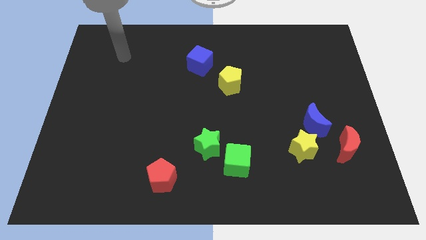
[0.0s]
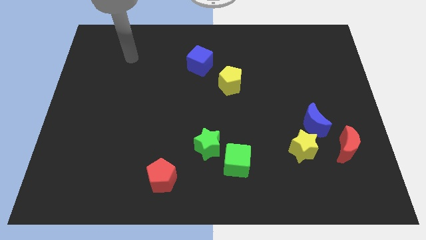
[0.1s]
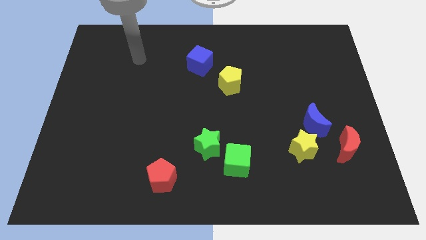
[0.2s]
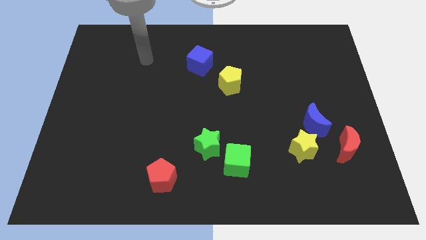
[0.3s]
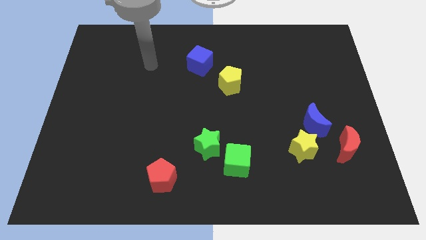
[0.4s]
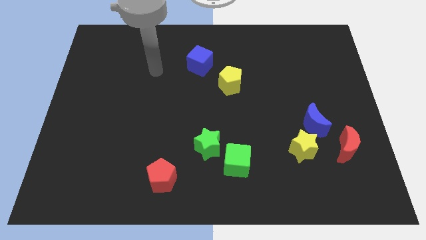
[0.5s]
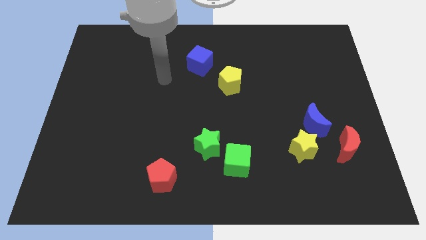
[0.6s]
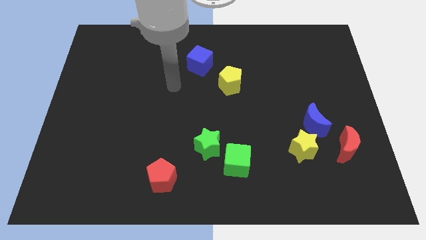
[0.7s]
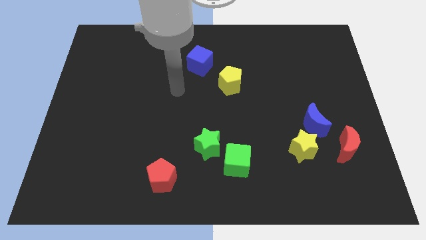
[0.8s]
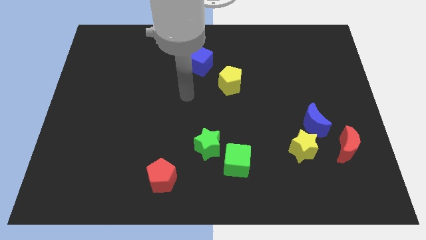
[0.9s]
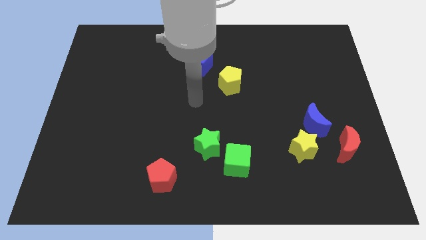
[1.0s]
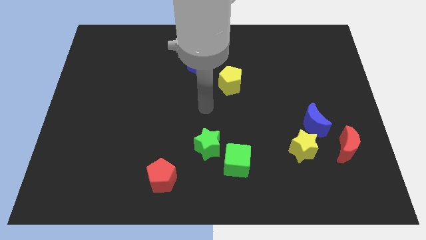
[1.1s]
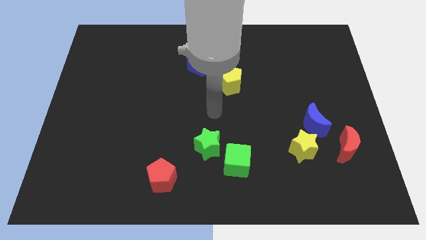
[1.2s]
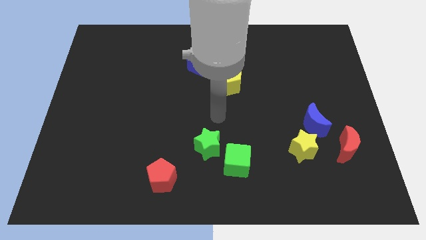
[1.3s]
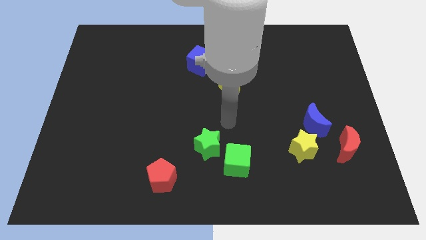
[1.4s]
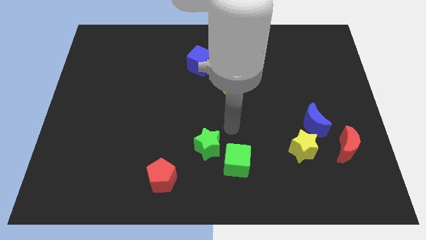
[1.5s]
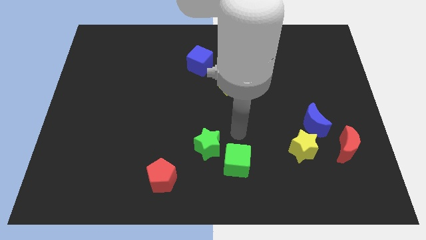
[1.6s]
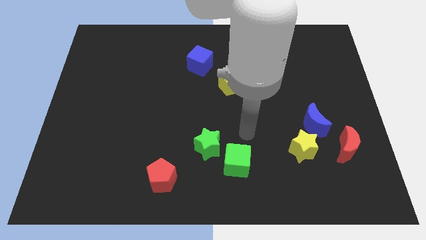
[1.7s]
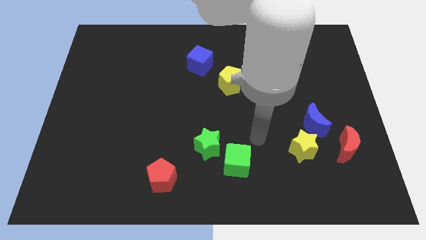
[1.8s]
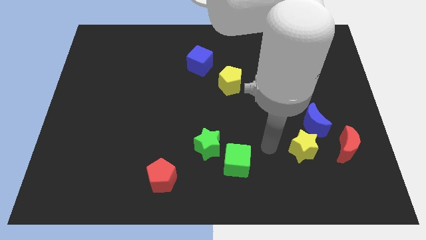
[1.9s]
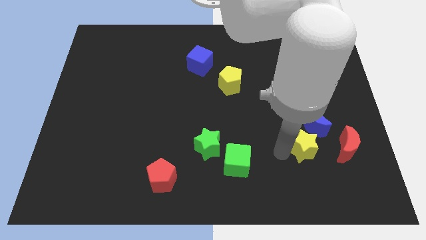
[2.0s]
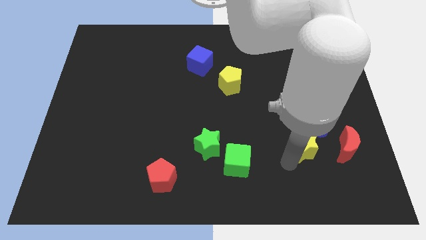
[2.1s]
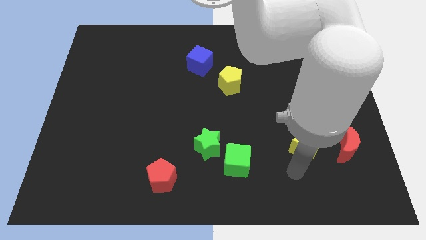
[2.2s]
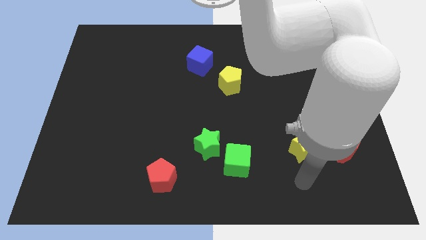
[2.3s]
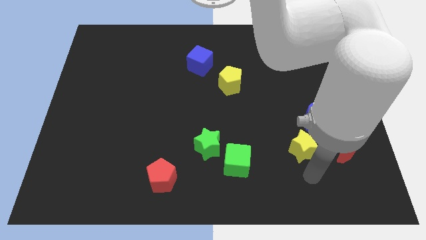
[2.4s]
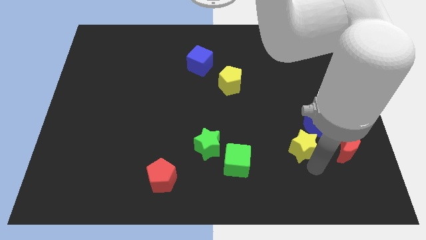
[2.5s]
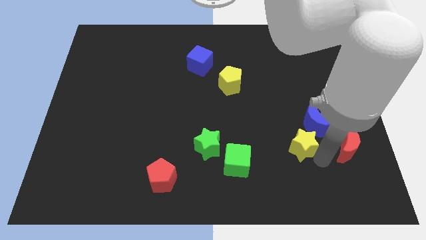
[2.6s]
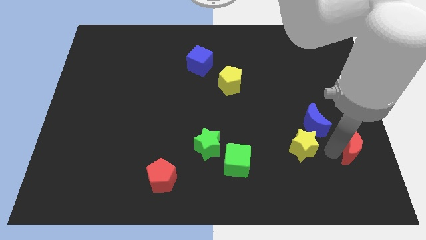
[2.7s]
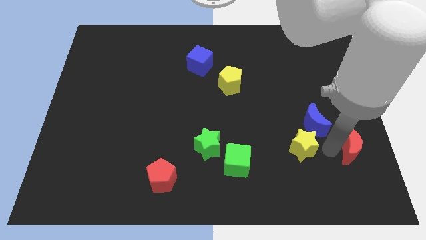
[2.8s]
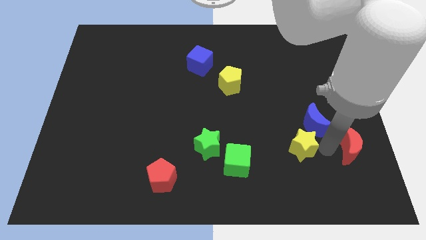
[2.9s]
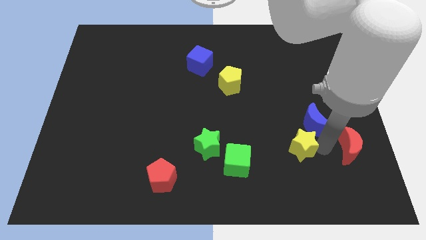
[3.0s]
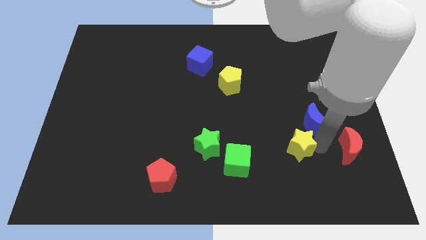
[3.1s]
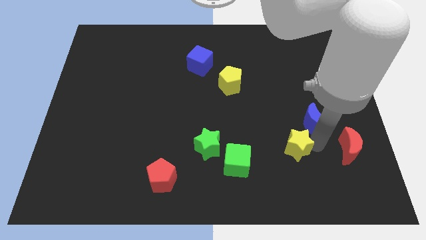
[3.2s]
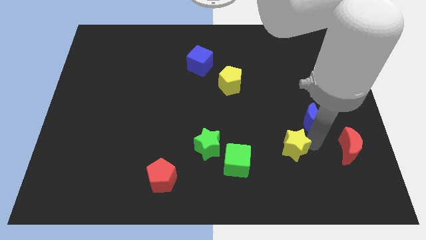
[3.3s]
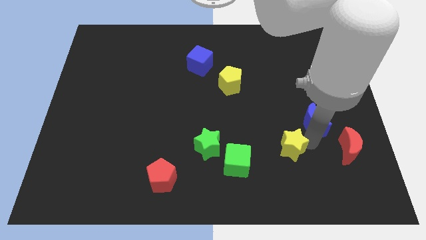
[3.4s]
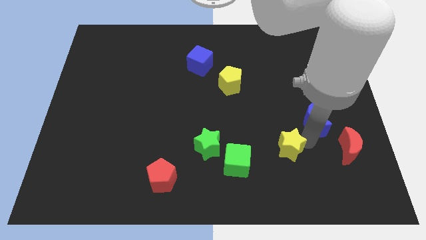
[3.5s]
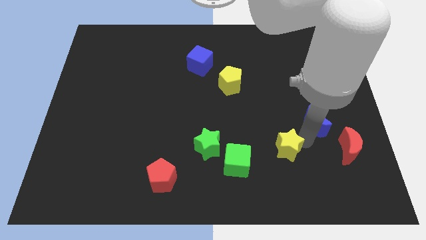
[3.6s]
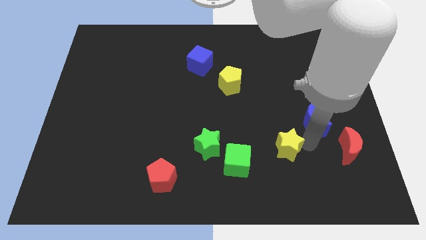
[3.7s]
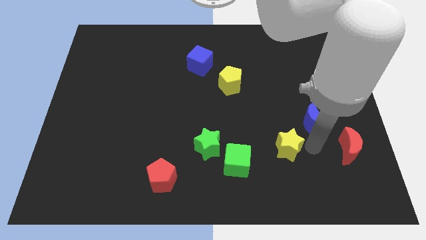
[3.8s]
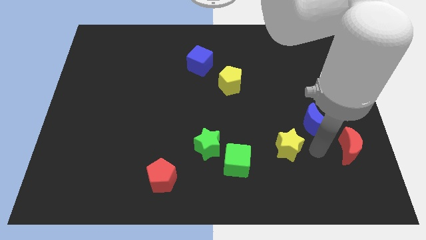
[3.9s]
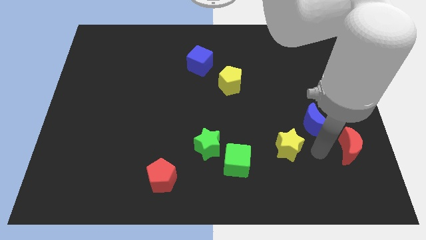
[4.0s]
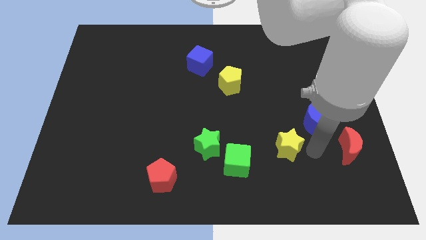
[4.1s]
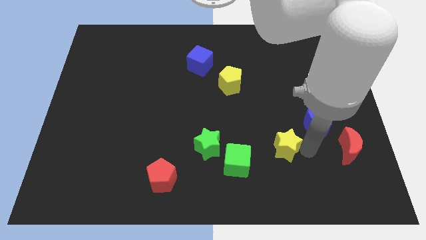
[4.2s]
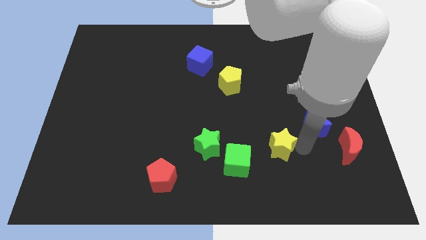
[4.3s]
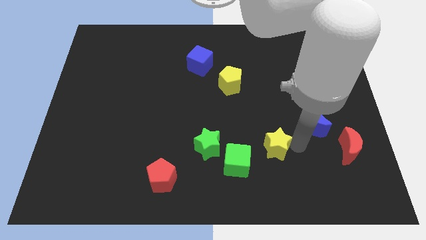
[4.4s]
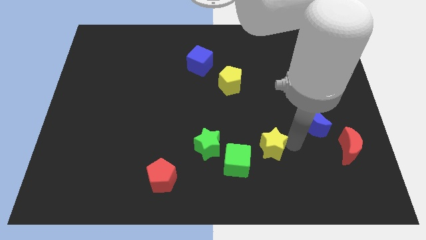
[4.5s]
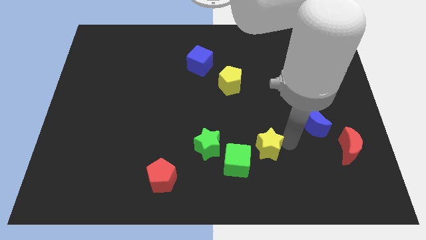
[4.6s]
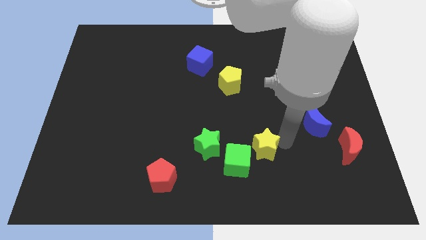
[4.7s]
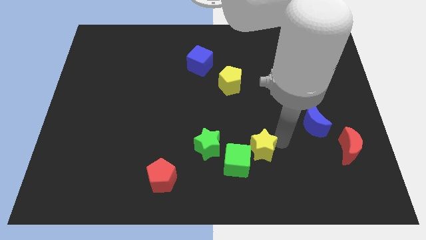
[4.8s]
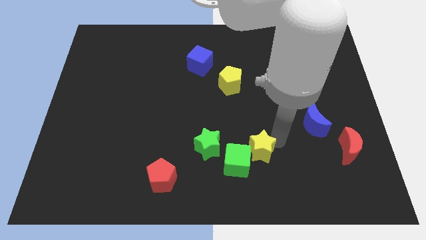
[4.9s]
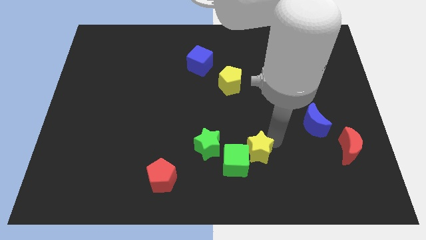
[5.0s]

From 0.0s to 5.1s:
put the yellow star towards the green cube

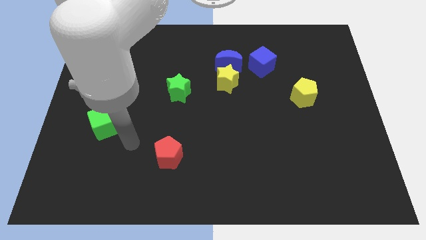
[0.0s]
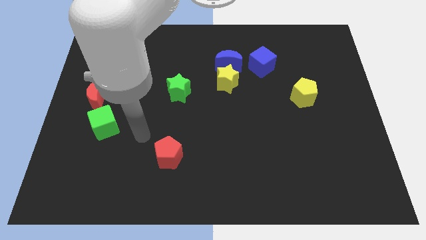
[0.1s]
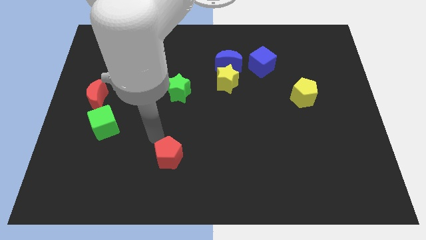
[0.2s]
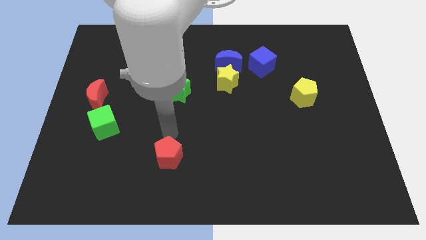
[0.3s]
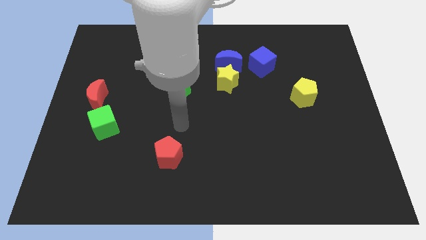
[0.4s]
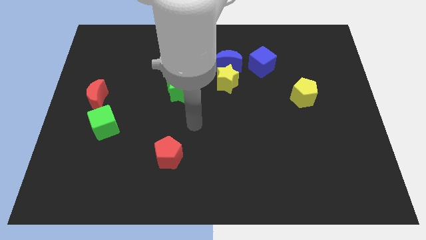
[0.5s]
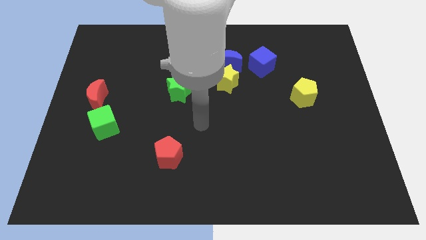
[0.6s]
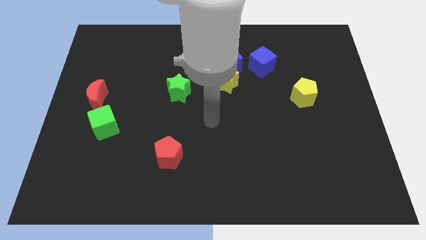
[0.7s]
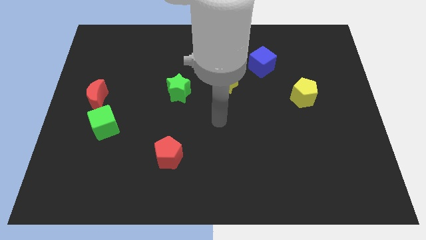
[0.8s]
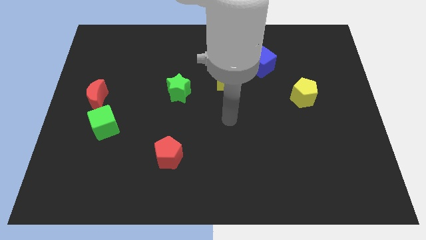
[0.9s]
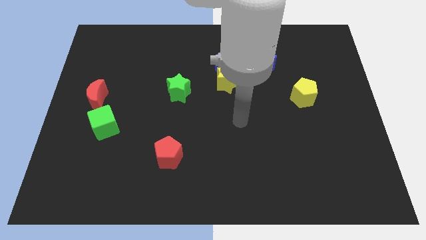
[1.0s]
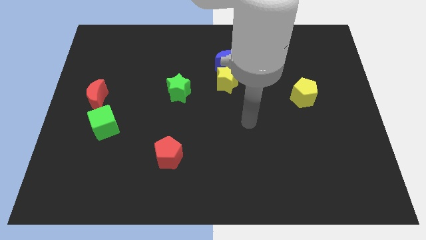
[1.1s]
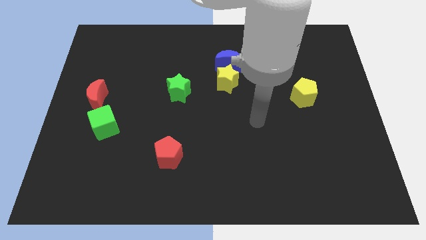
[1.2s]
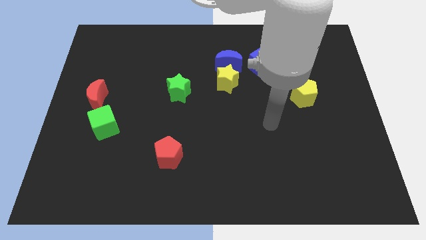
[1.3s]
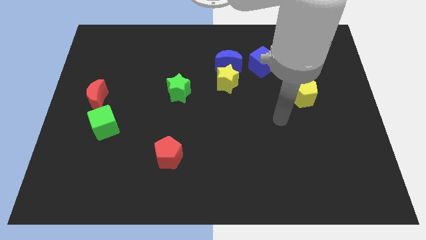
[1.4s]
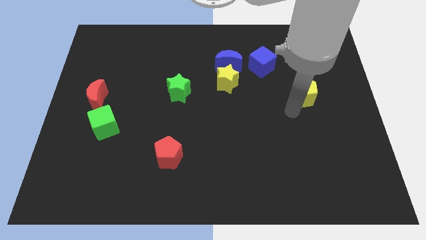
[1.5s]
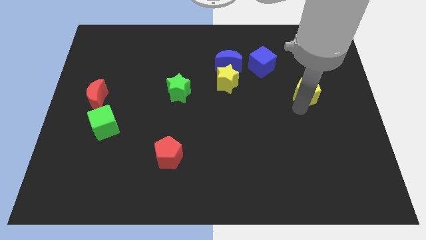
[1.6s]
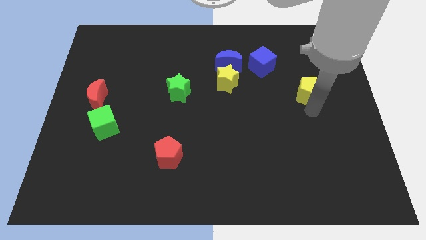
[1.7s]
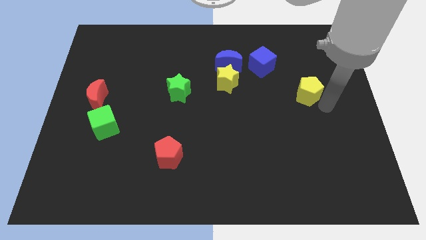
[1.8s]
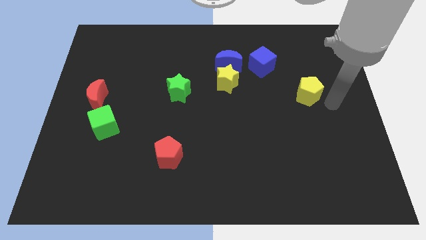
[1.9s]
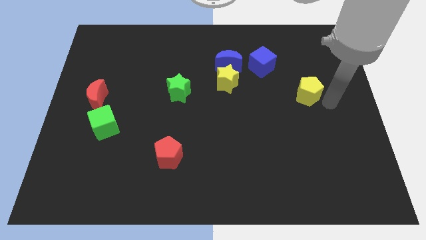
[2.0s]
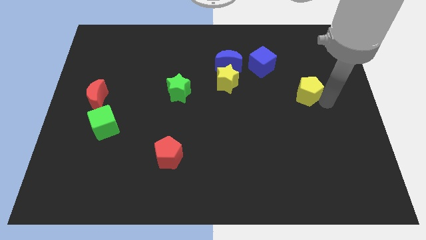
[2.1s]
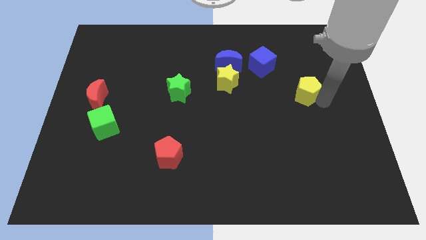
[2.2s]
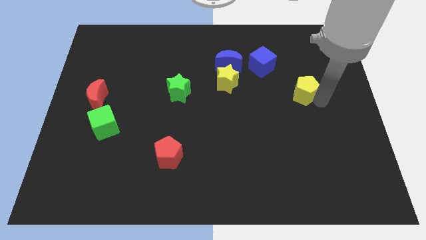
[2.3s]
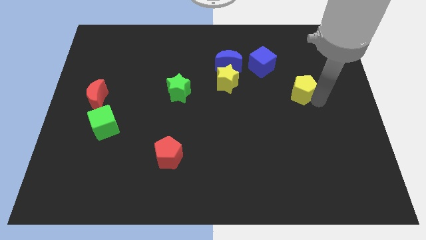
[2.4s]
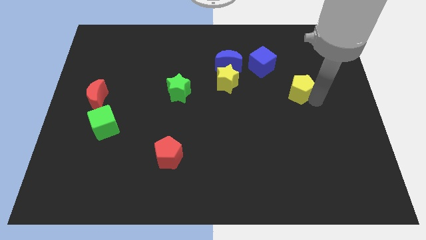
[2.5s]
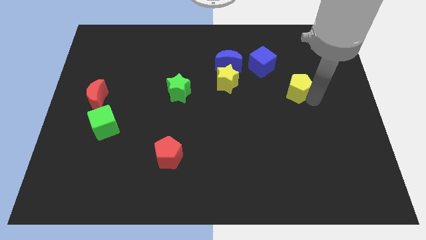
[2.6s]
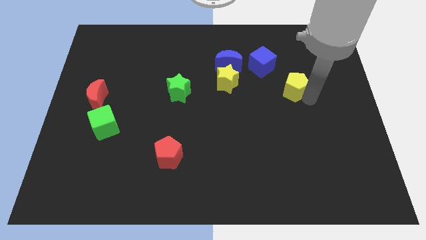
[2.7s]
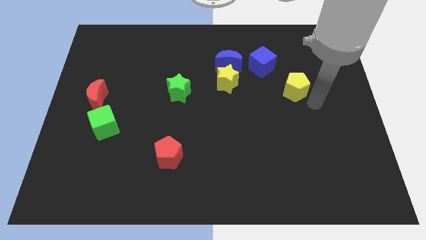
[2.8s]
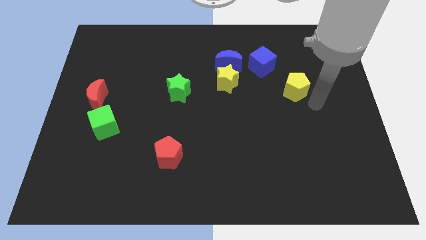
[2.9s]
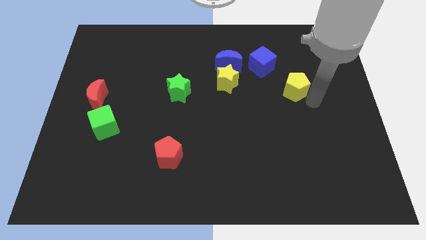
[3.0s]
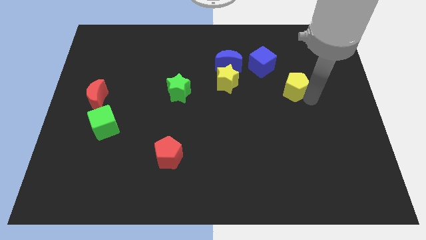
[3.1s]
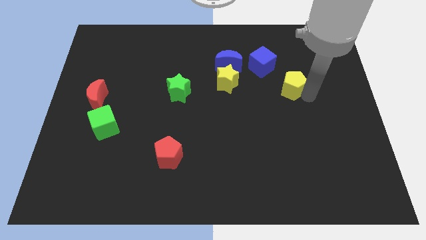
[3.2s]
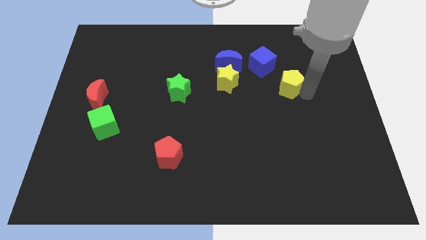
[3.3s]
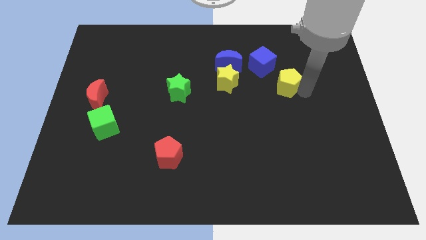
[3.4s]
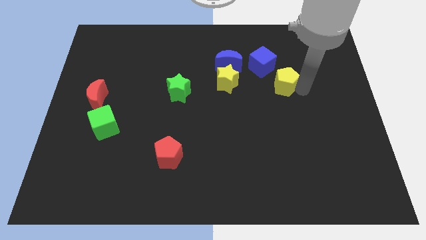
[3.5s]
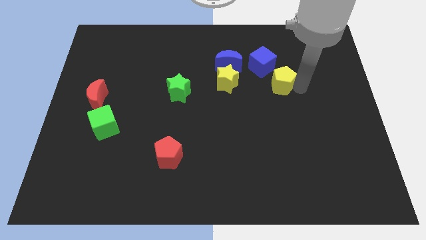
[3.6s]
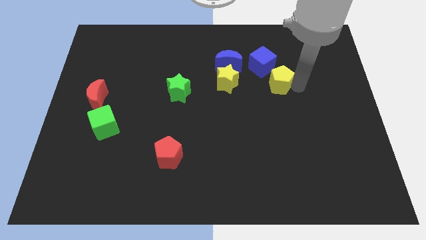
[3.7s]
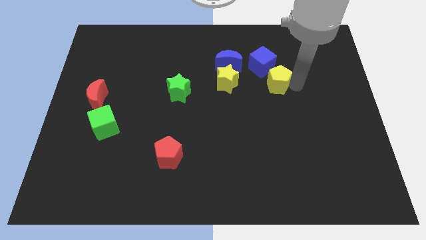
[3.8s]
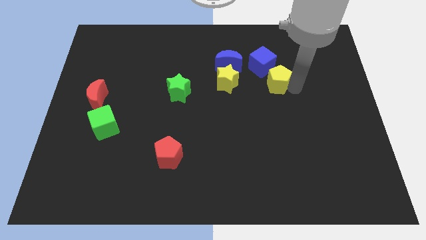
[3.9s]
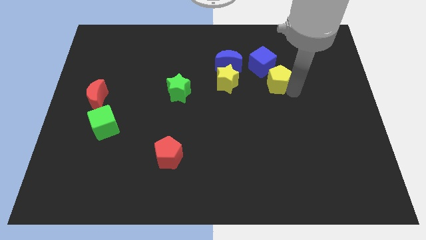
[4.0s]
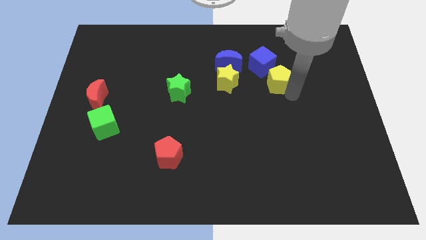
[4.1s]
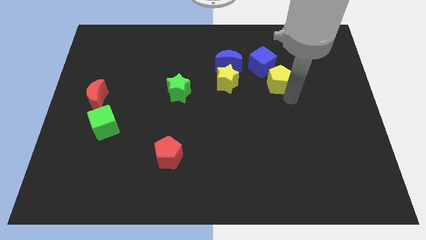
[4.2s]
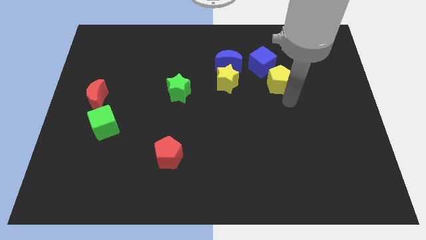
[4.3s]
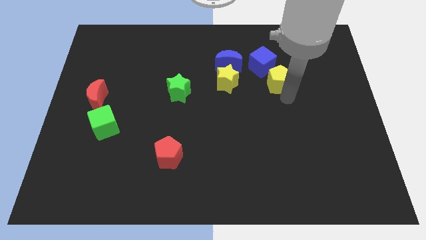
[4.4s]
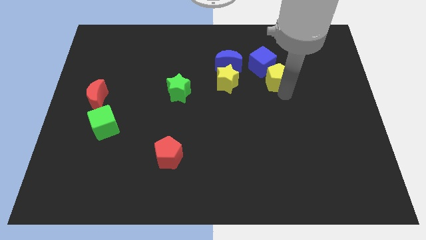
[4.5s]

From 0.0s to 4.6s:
slide the yellow pentagon to the blue cube
